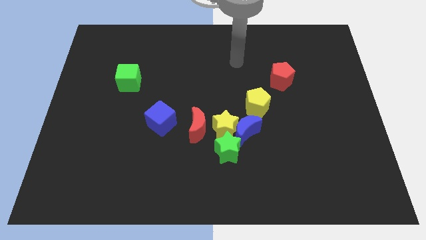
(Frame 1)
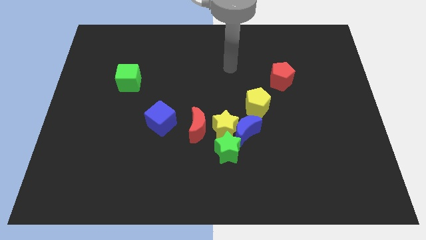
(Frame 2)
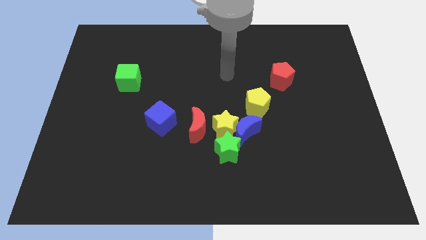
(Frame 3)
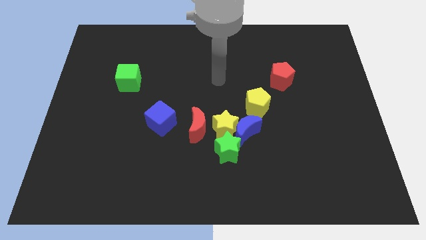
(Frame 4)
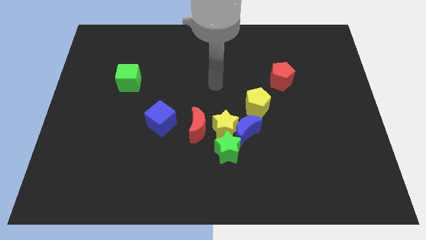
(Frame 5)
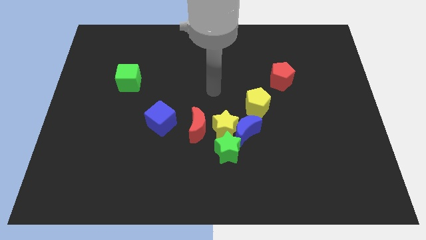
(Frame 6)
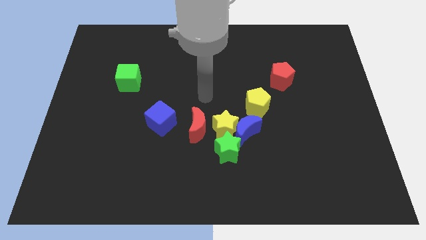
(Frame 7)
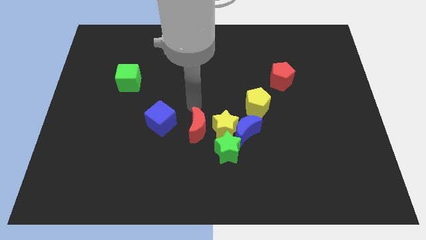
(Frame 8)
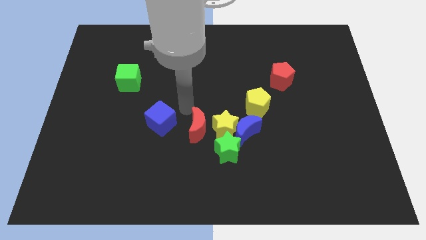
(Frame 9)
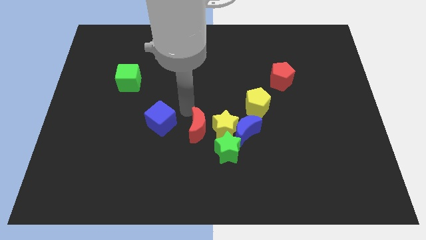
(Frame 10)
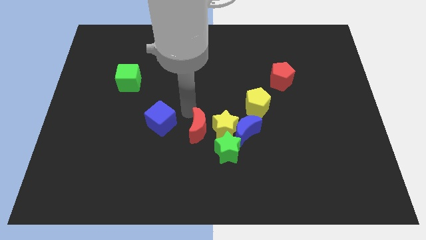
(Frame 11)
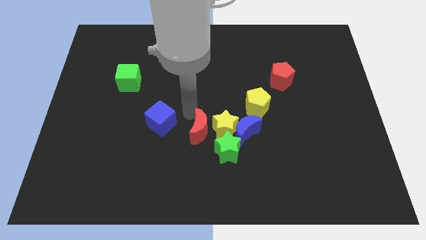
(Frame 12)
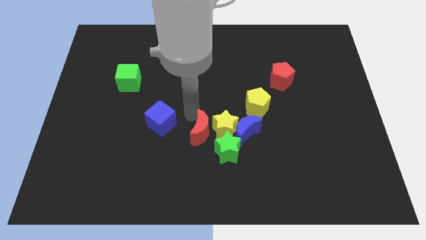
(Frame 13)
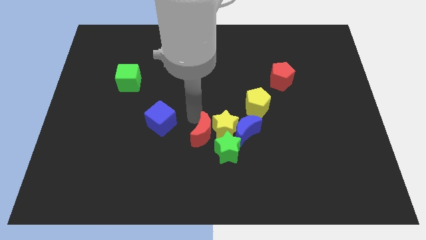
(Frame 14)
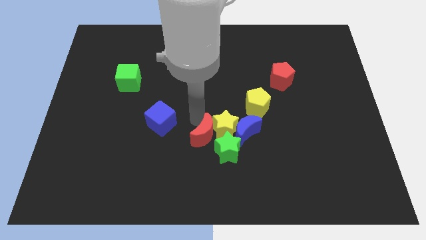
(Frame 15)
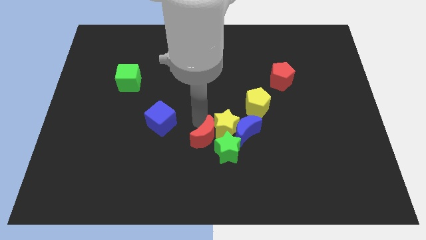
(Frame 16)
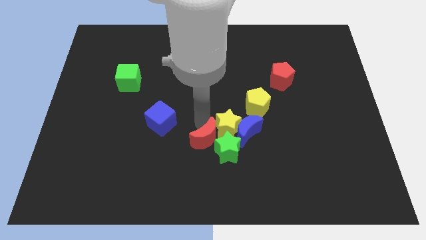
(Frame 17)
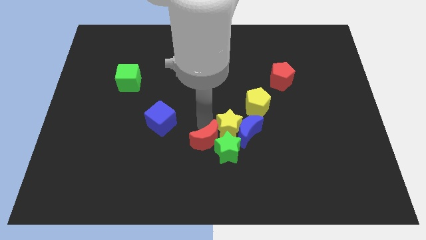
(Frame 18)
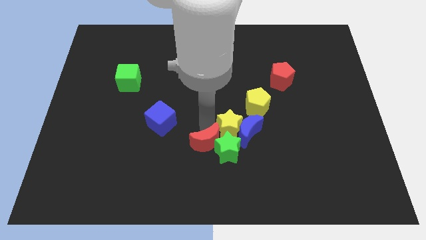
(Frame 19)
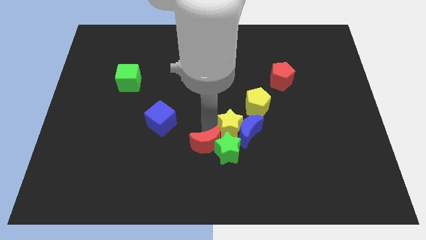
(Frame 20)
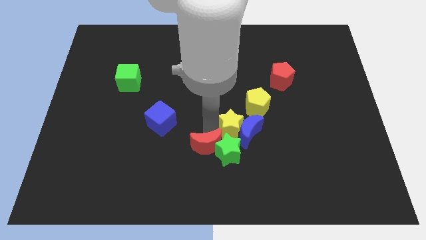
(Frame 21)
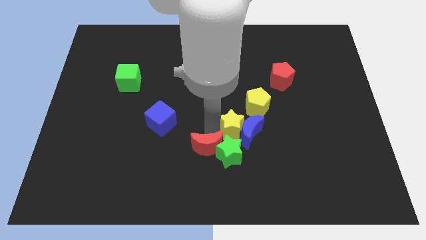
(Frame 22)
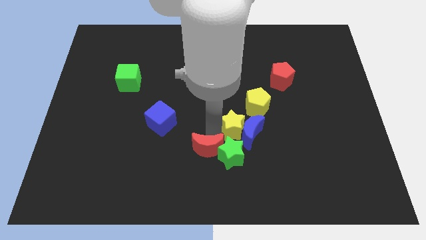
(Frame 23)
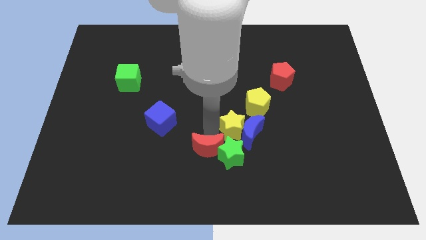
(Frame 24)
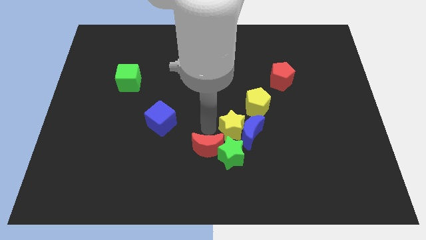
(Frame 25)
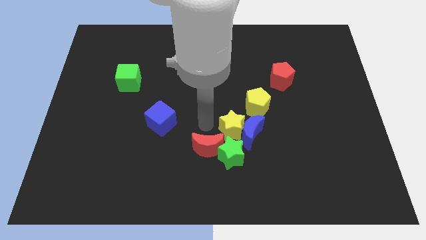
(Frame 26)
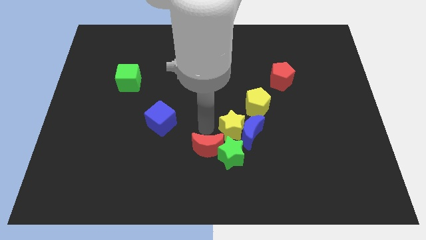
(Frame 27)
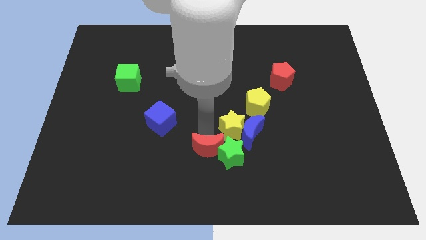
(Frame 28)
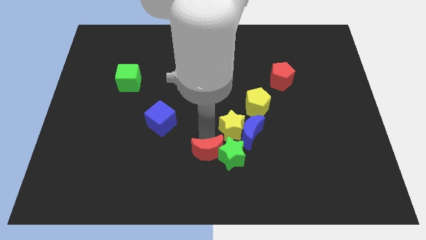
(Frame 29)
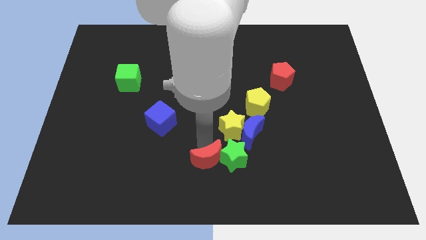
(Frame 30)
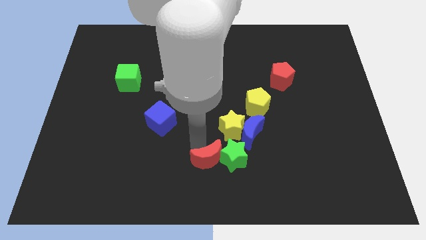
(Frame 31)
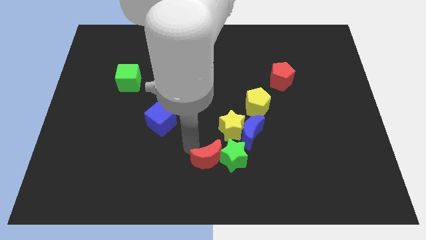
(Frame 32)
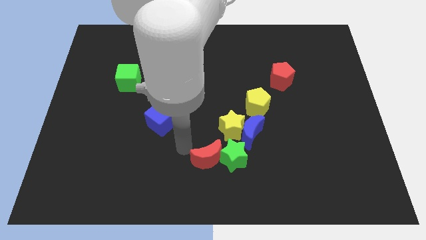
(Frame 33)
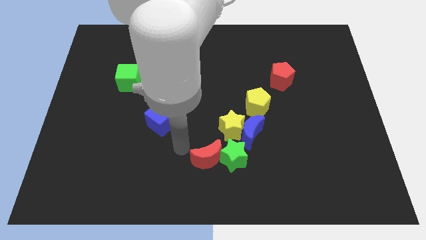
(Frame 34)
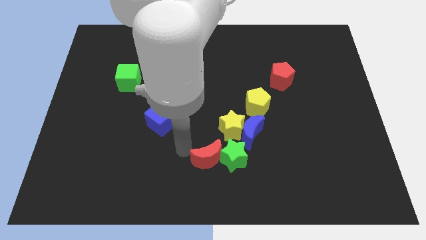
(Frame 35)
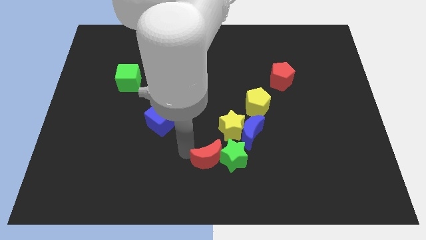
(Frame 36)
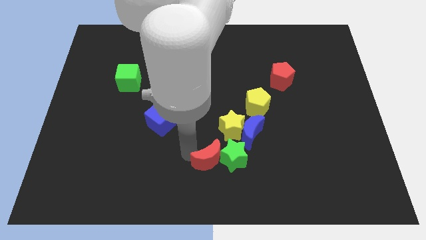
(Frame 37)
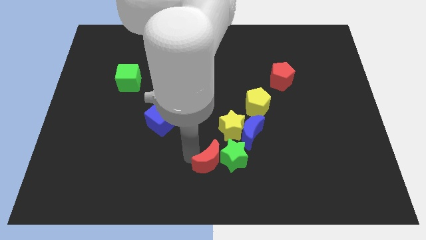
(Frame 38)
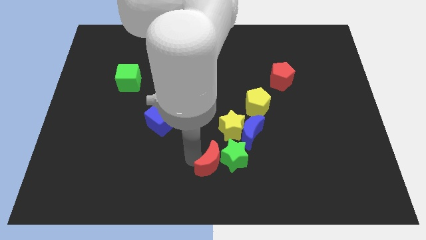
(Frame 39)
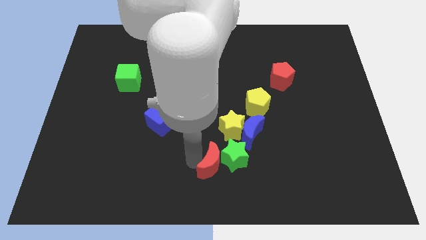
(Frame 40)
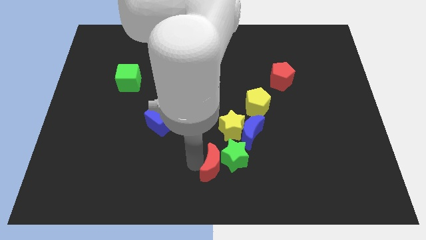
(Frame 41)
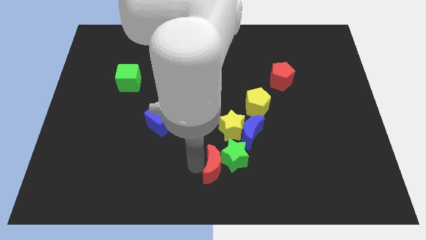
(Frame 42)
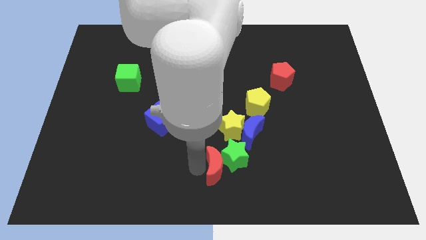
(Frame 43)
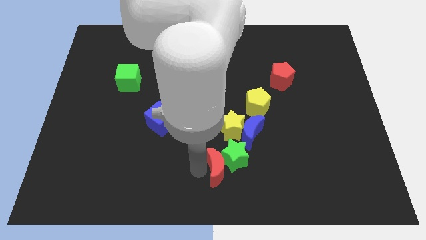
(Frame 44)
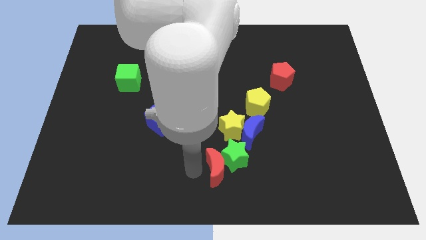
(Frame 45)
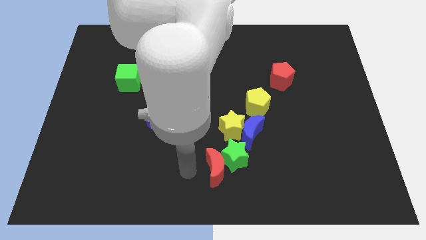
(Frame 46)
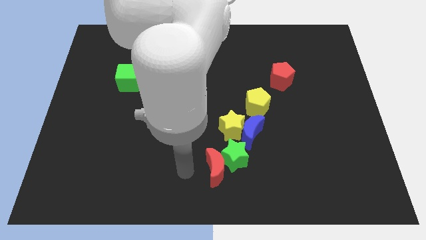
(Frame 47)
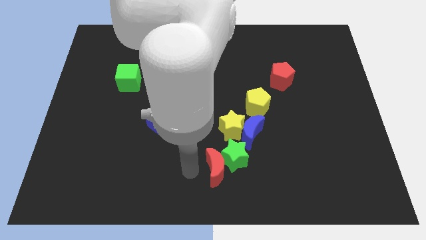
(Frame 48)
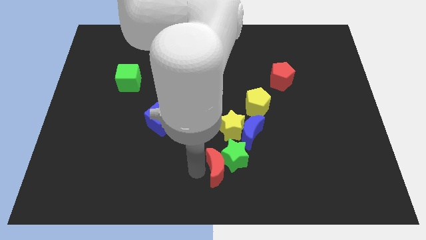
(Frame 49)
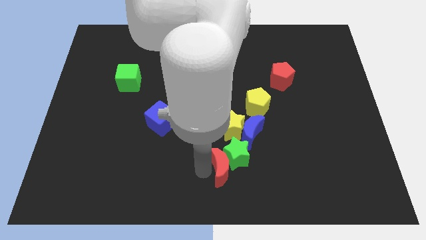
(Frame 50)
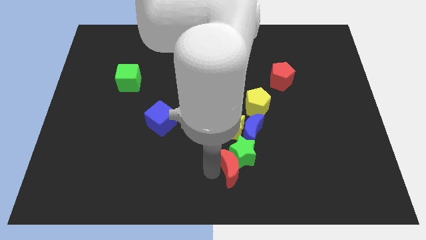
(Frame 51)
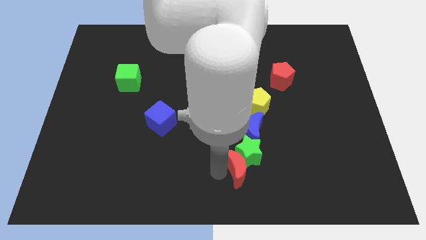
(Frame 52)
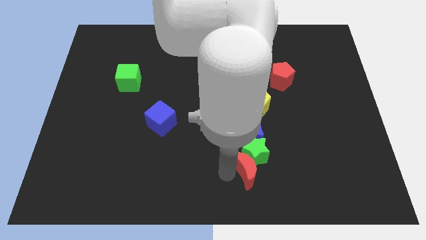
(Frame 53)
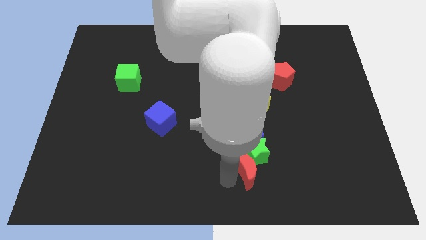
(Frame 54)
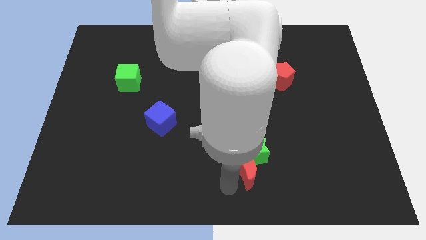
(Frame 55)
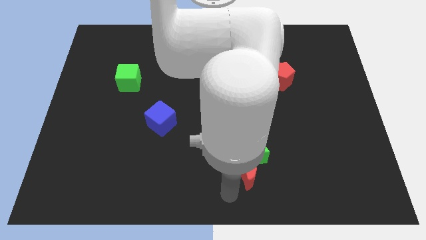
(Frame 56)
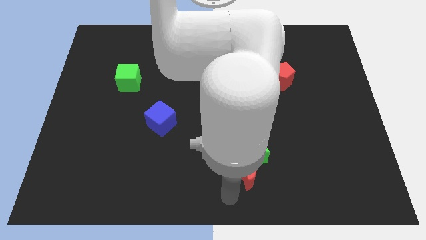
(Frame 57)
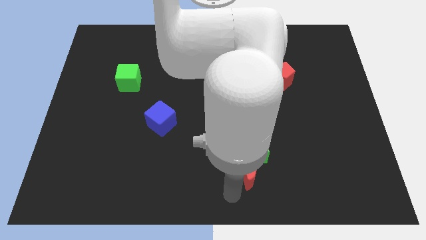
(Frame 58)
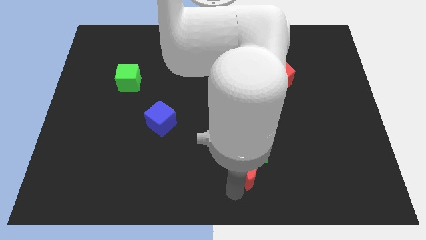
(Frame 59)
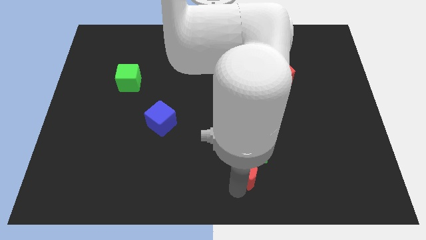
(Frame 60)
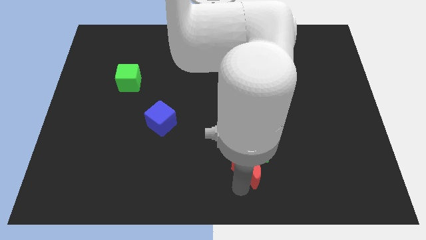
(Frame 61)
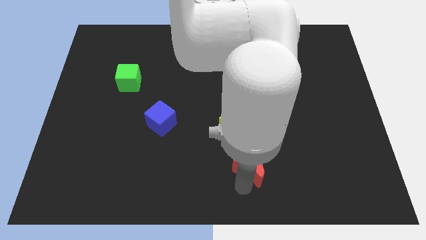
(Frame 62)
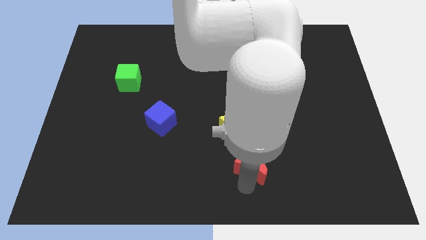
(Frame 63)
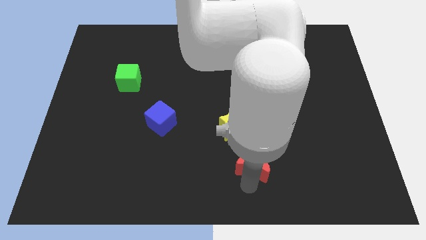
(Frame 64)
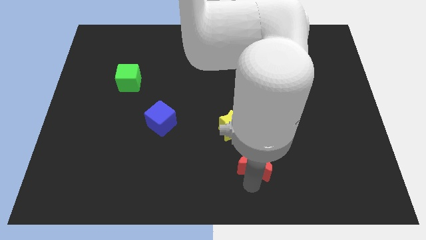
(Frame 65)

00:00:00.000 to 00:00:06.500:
move the red moon somewhat right

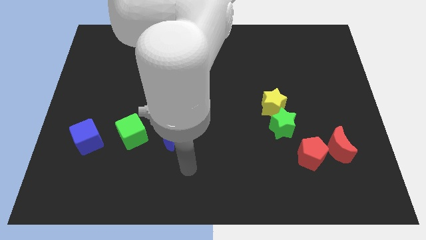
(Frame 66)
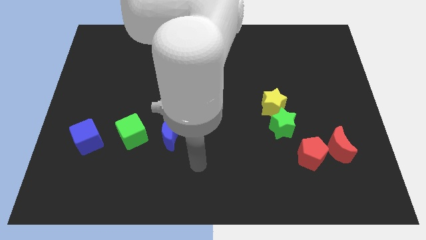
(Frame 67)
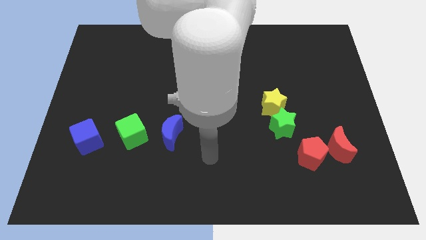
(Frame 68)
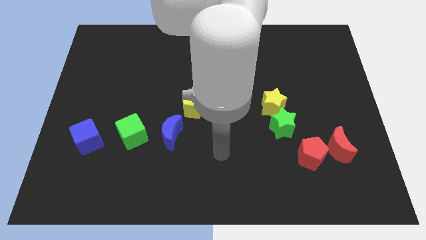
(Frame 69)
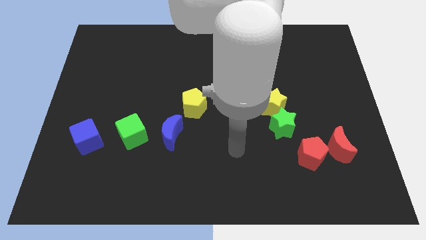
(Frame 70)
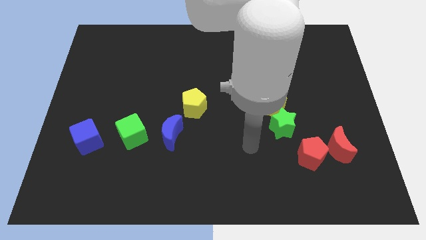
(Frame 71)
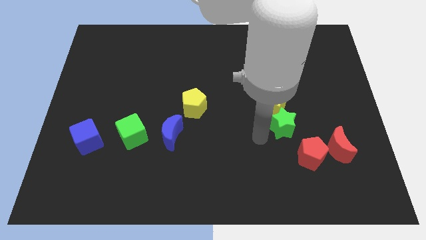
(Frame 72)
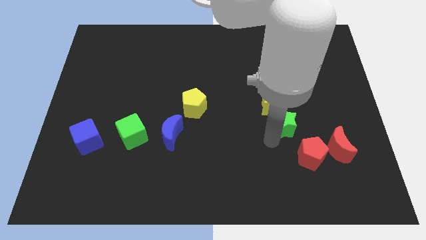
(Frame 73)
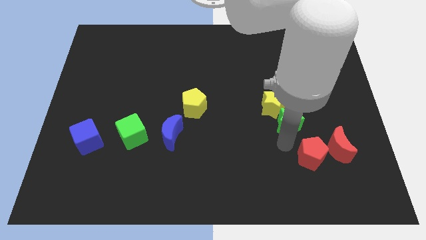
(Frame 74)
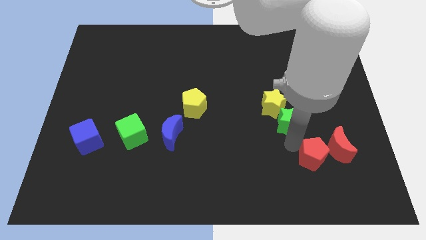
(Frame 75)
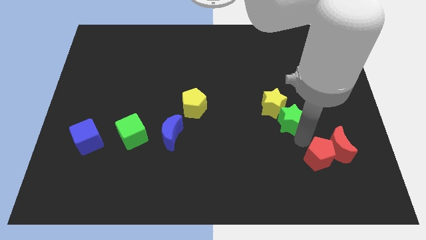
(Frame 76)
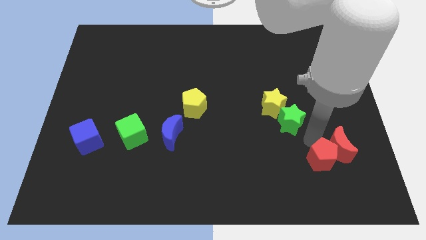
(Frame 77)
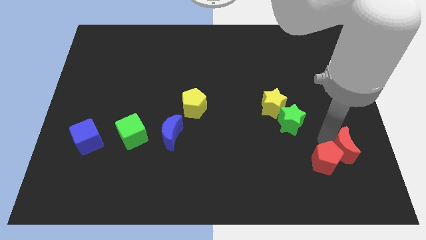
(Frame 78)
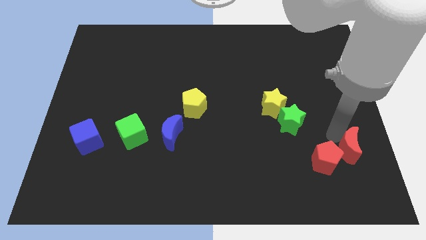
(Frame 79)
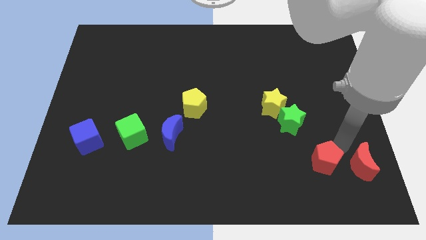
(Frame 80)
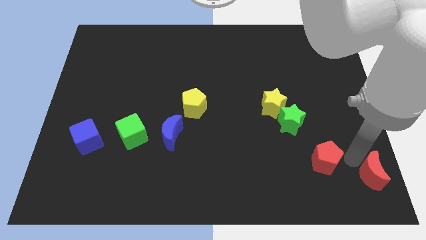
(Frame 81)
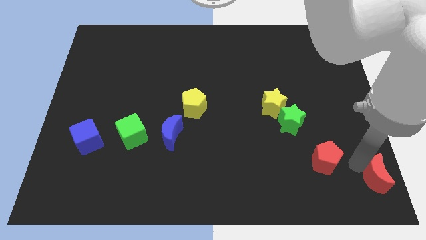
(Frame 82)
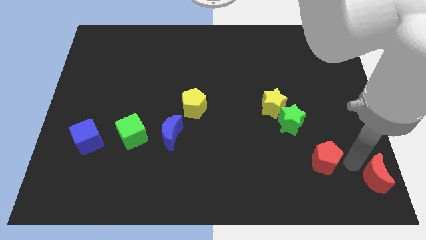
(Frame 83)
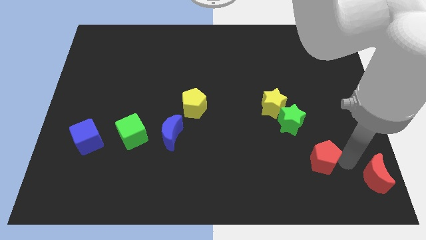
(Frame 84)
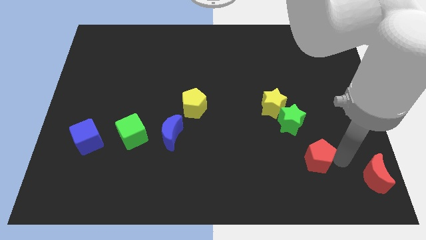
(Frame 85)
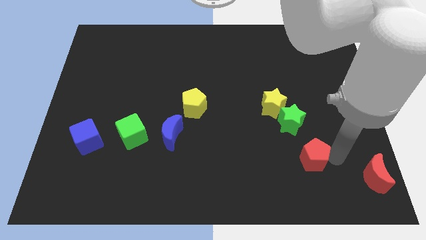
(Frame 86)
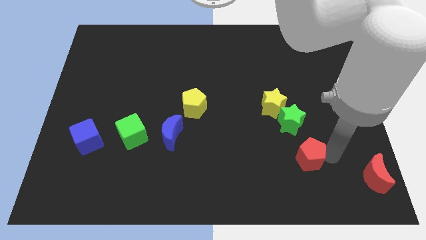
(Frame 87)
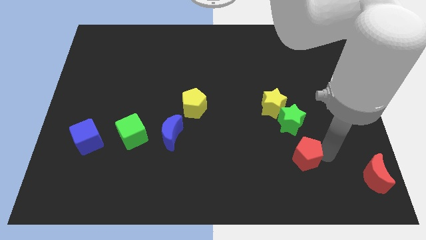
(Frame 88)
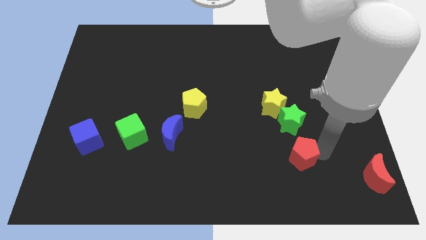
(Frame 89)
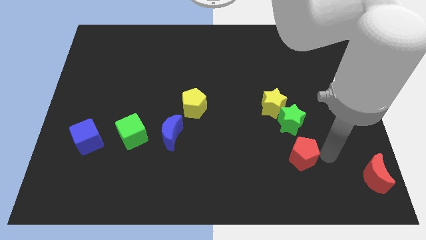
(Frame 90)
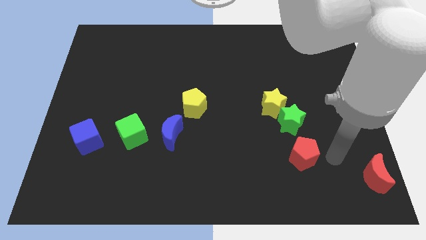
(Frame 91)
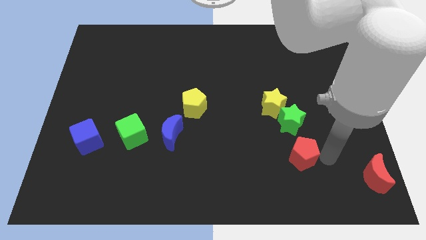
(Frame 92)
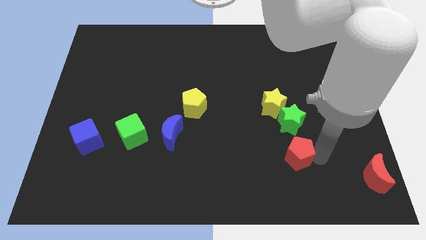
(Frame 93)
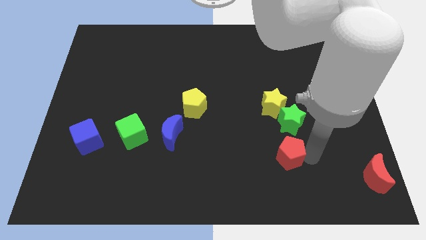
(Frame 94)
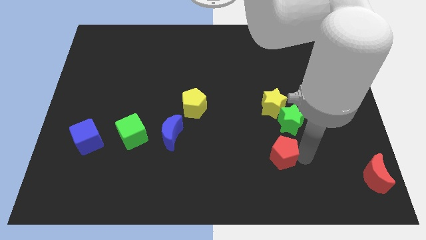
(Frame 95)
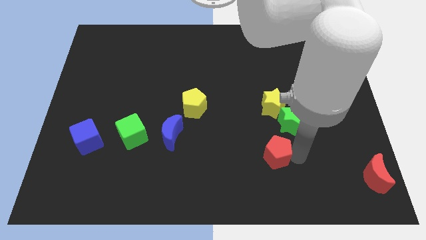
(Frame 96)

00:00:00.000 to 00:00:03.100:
push the red pentagon to the left a little
